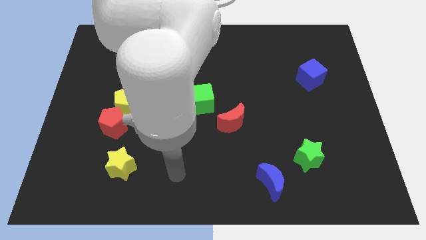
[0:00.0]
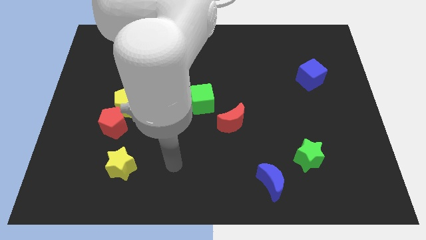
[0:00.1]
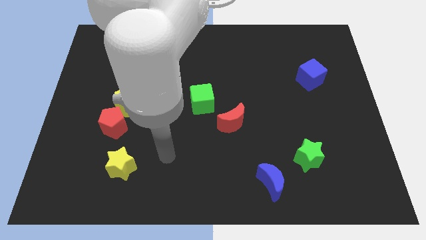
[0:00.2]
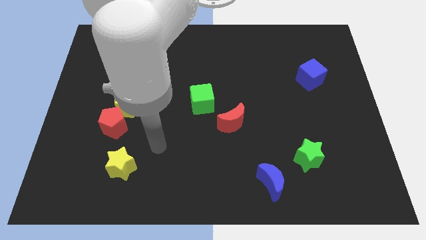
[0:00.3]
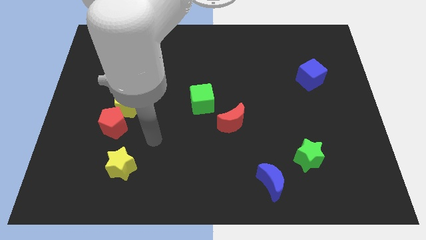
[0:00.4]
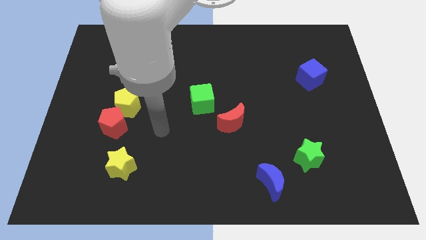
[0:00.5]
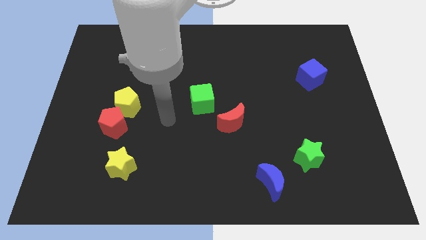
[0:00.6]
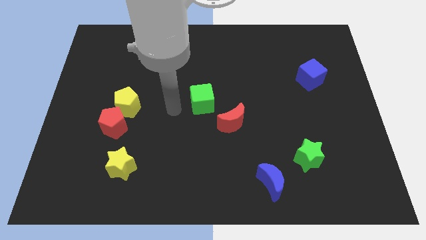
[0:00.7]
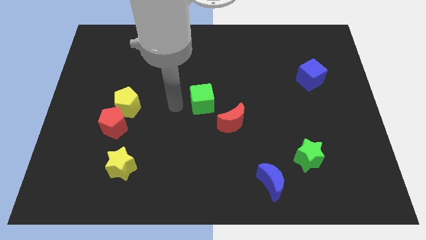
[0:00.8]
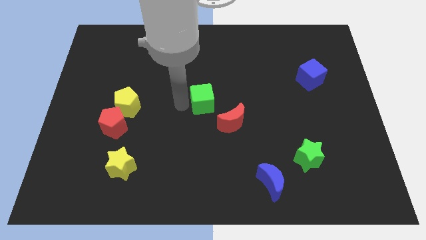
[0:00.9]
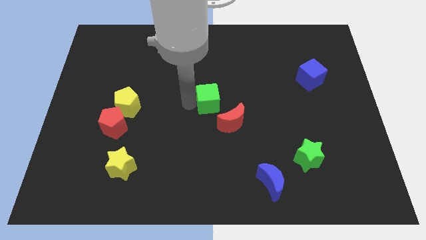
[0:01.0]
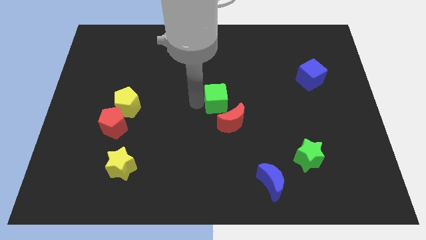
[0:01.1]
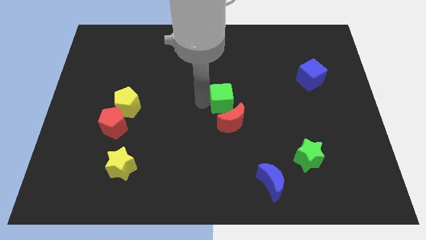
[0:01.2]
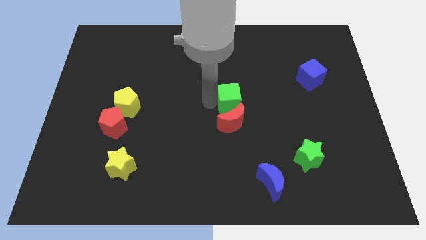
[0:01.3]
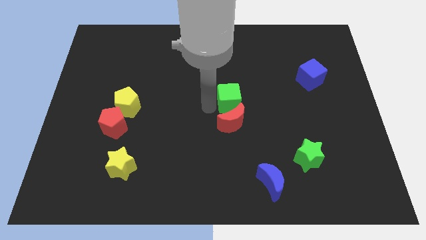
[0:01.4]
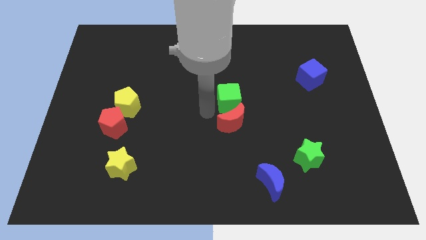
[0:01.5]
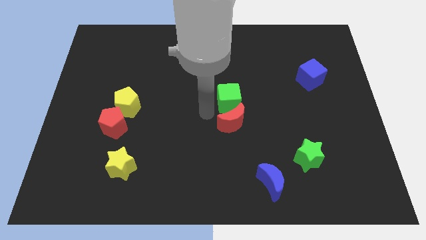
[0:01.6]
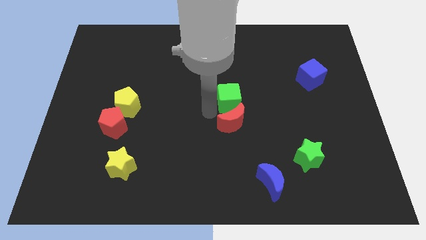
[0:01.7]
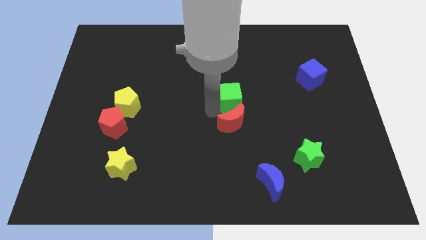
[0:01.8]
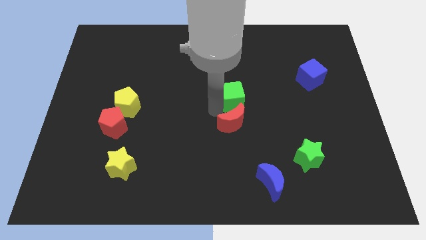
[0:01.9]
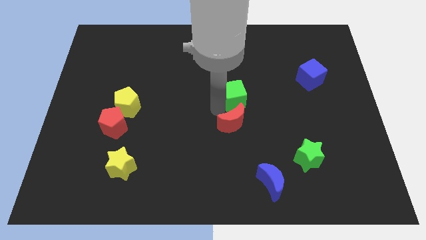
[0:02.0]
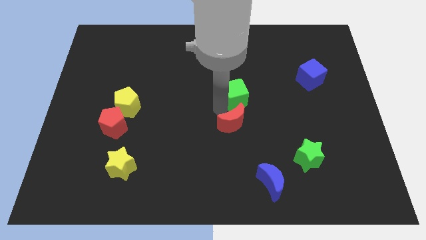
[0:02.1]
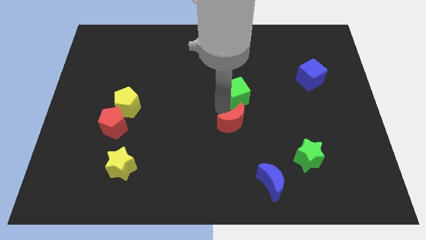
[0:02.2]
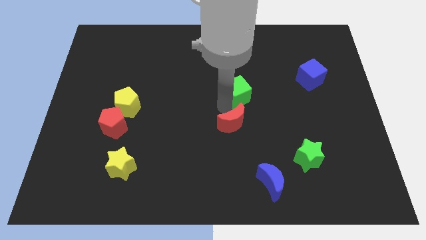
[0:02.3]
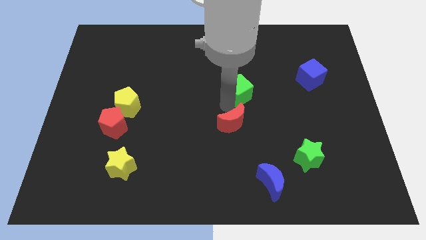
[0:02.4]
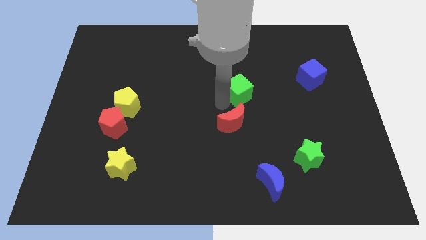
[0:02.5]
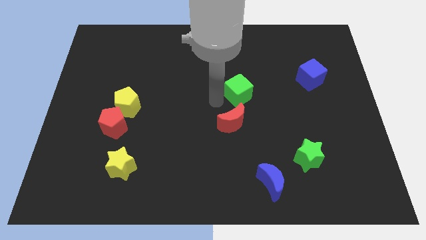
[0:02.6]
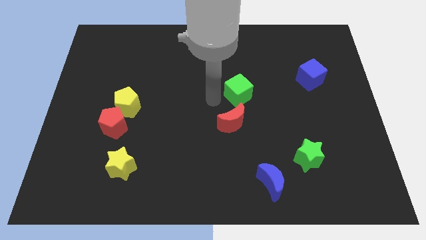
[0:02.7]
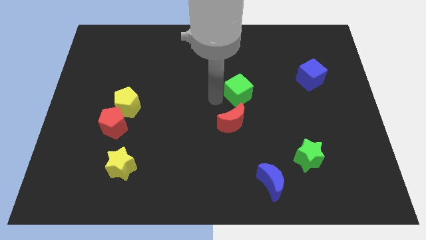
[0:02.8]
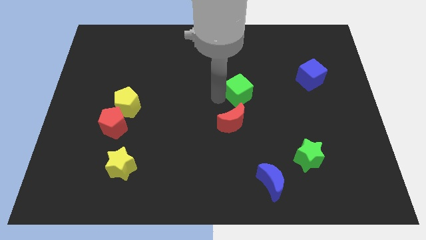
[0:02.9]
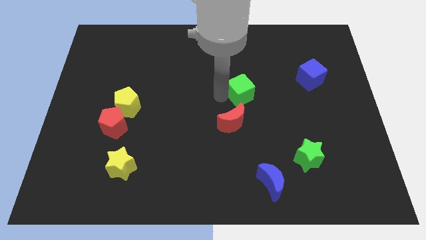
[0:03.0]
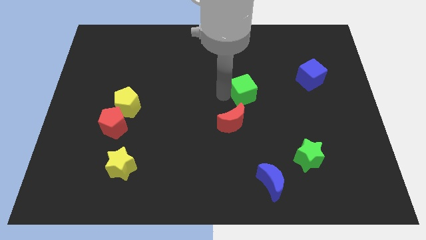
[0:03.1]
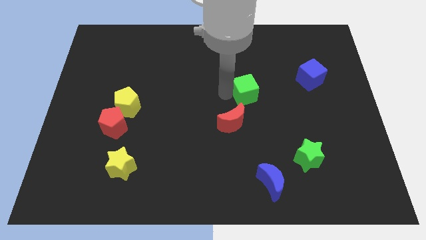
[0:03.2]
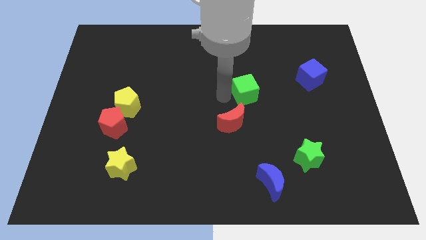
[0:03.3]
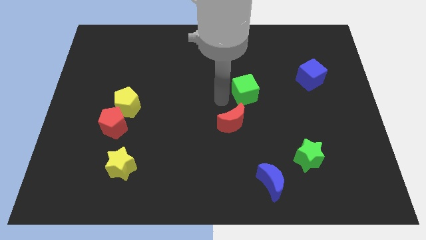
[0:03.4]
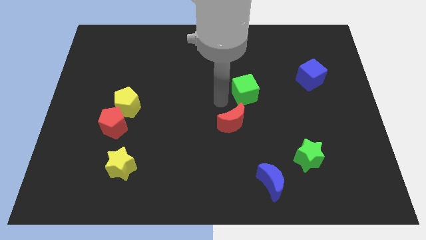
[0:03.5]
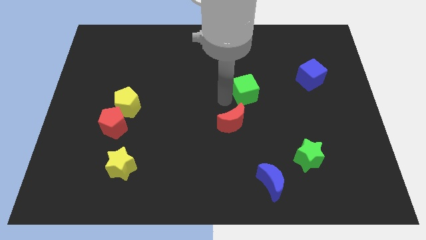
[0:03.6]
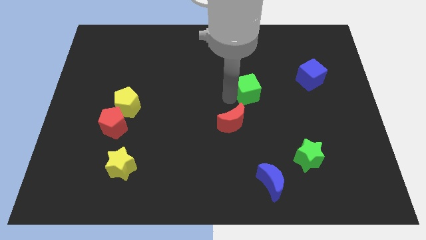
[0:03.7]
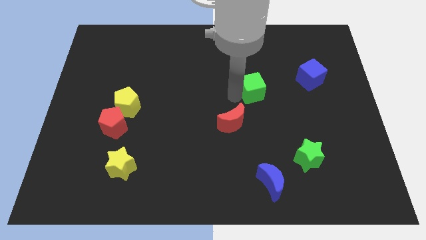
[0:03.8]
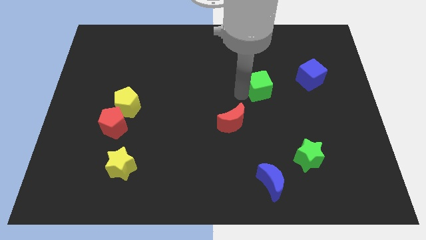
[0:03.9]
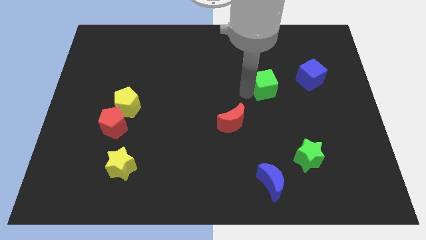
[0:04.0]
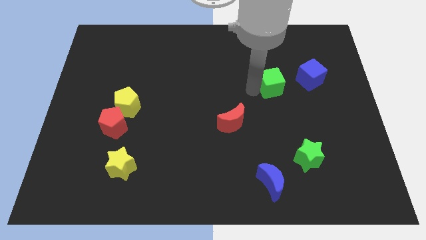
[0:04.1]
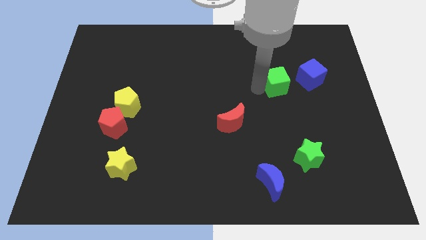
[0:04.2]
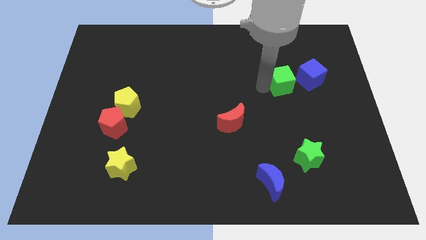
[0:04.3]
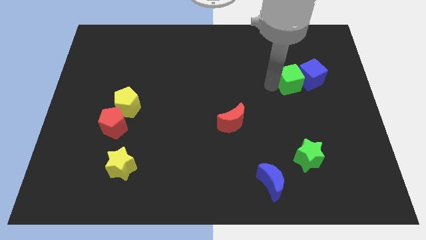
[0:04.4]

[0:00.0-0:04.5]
put the green cube close to the blue cube

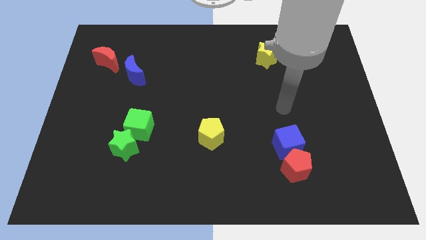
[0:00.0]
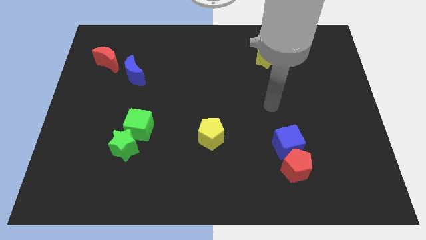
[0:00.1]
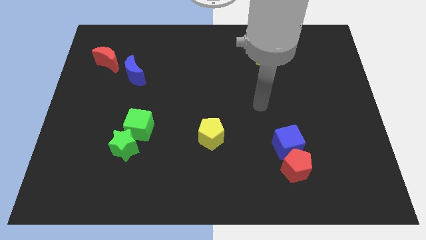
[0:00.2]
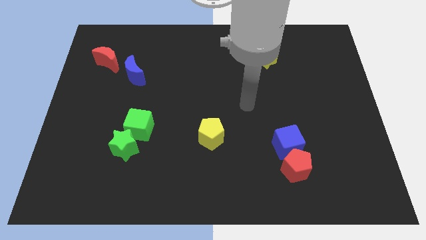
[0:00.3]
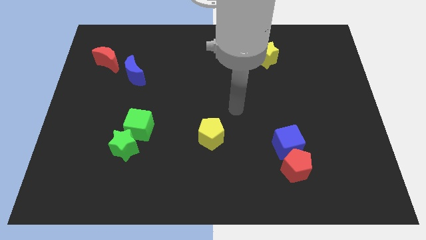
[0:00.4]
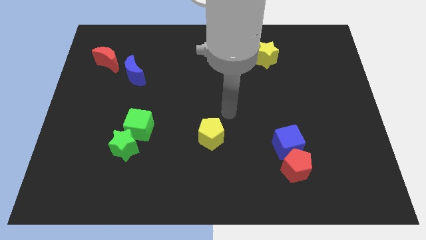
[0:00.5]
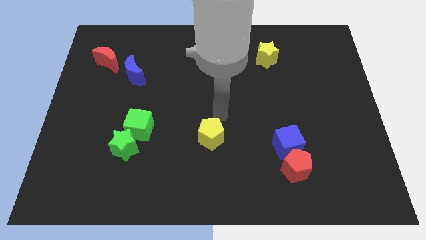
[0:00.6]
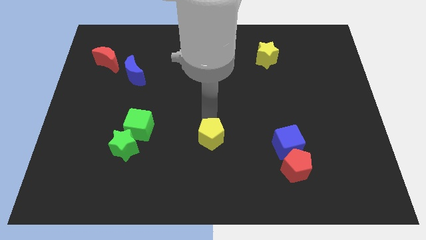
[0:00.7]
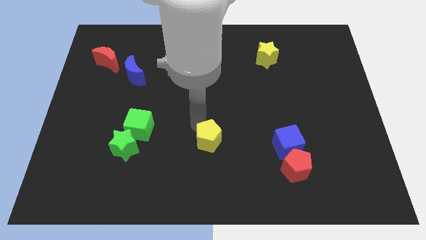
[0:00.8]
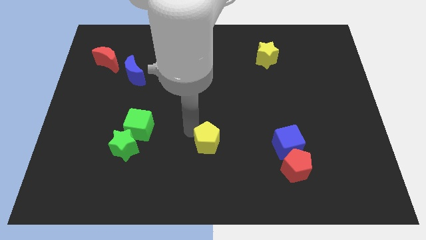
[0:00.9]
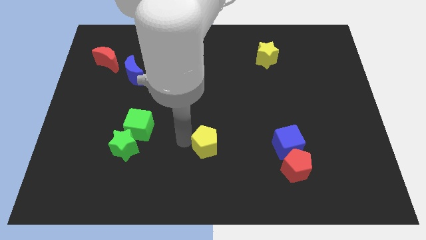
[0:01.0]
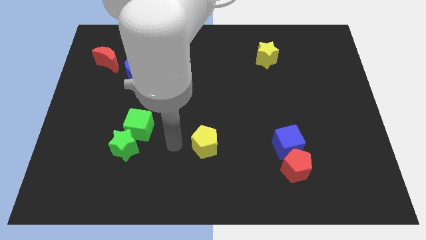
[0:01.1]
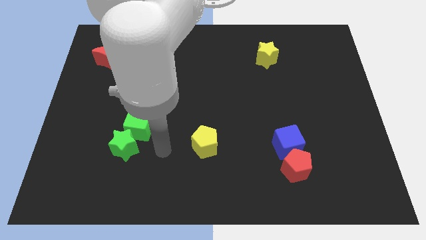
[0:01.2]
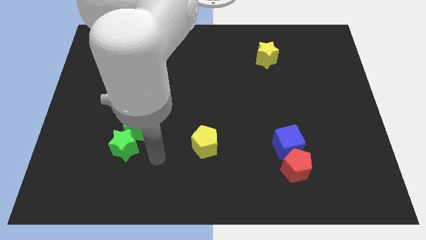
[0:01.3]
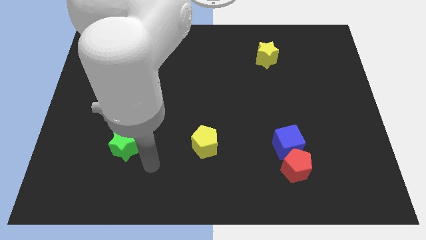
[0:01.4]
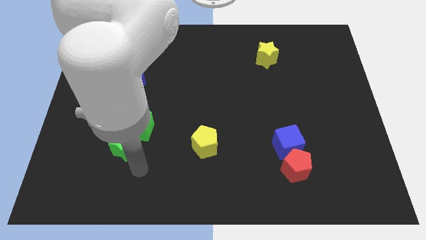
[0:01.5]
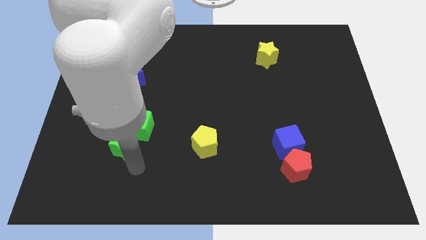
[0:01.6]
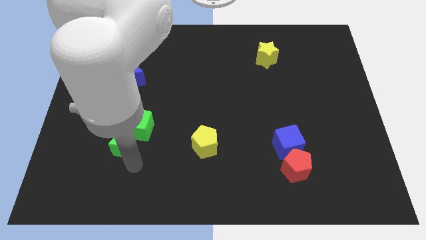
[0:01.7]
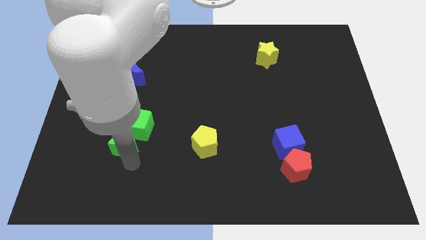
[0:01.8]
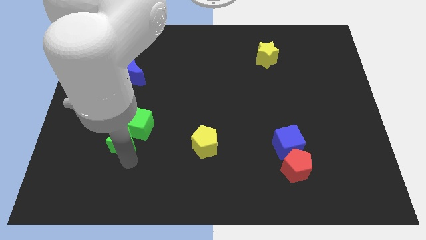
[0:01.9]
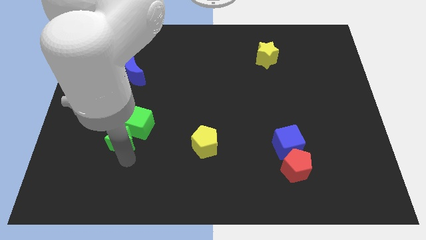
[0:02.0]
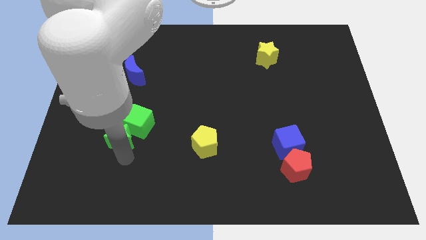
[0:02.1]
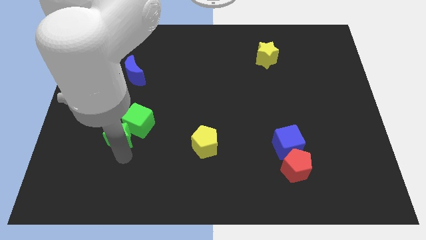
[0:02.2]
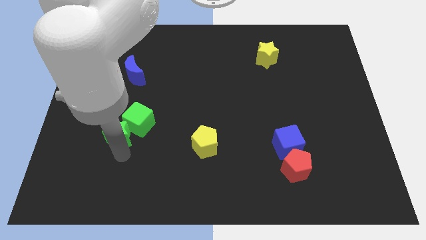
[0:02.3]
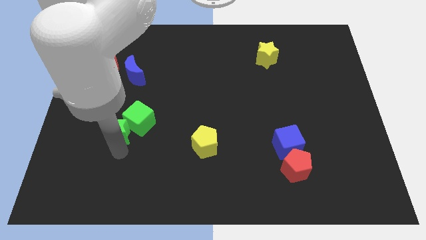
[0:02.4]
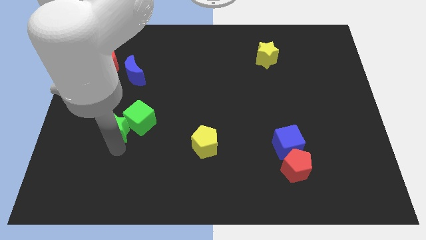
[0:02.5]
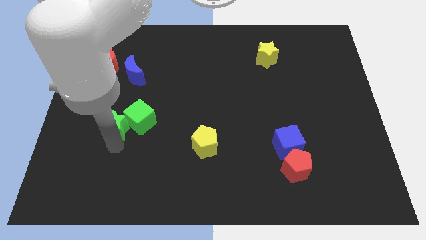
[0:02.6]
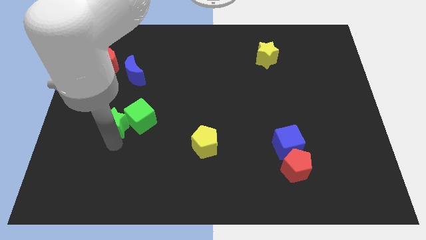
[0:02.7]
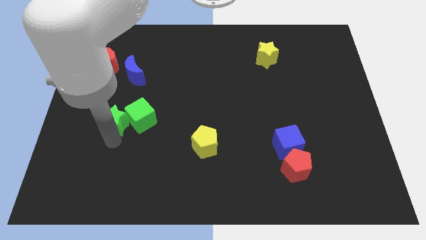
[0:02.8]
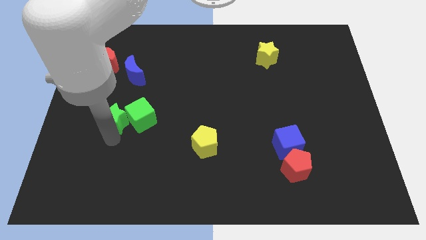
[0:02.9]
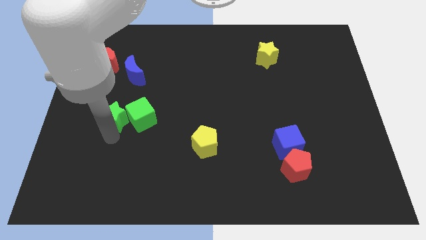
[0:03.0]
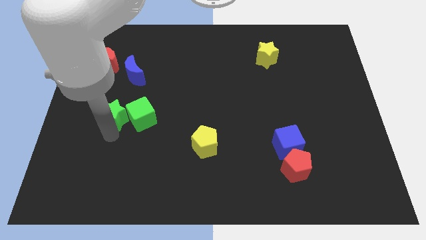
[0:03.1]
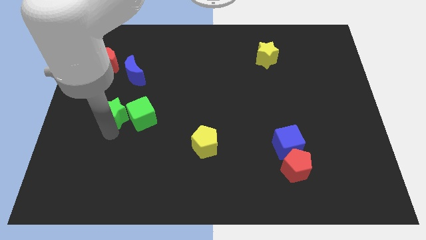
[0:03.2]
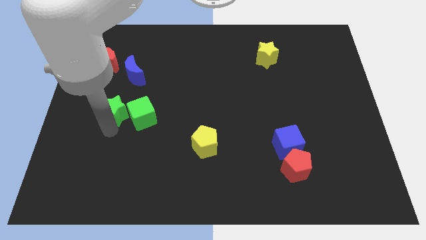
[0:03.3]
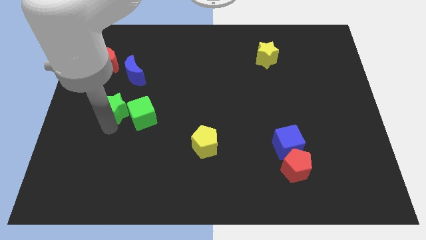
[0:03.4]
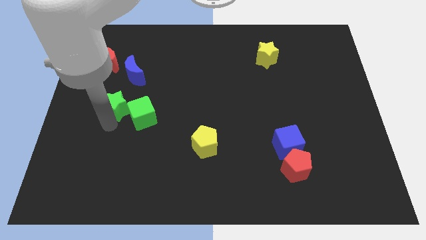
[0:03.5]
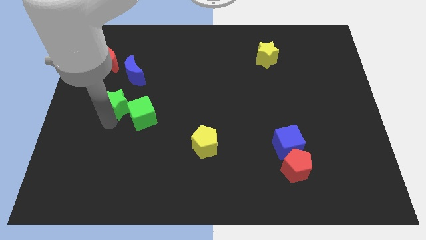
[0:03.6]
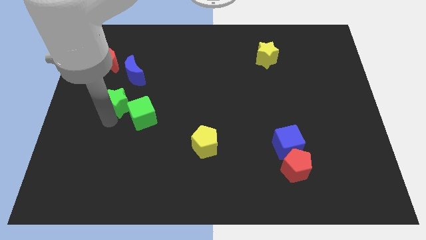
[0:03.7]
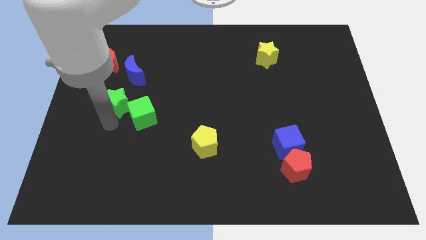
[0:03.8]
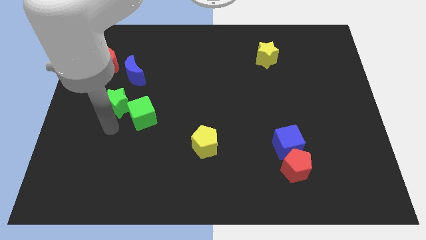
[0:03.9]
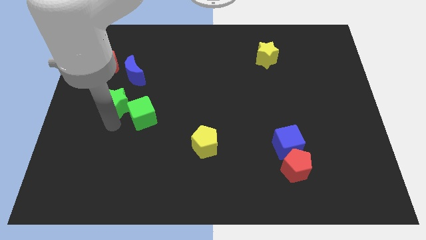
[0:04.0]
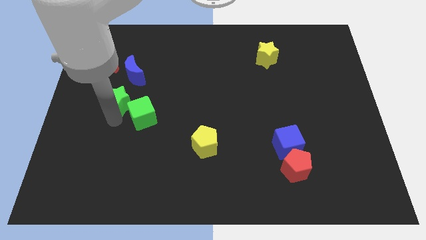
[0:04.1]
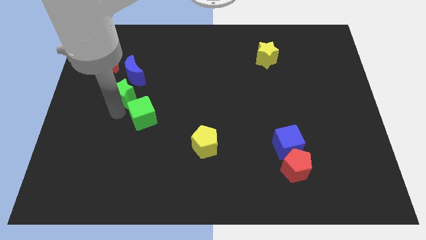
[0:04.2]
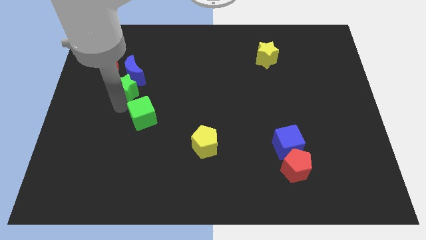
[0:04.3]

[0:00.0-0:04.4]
slide the green star next to the blue moon
